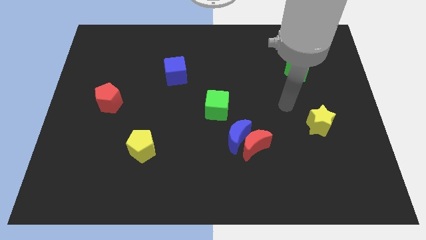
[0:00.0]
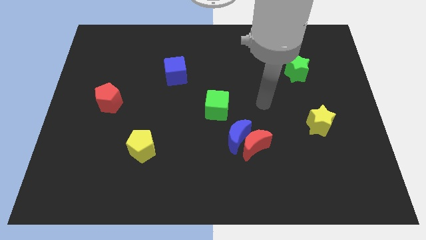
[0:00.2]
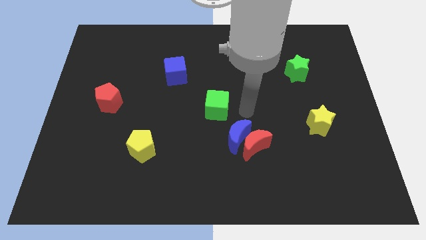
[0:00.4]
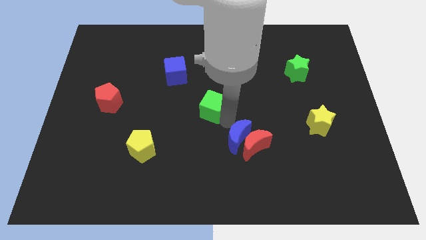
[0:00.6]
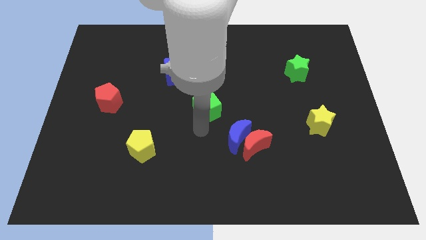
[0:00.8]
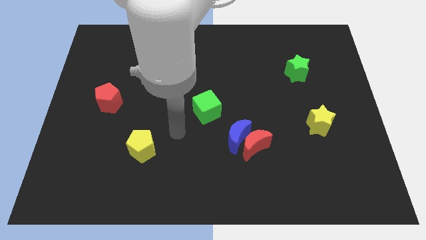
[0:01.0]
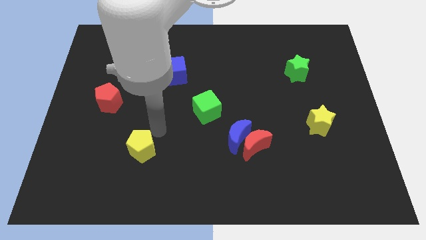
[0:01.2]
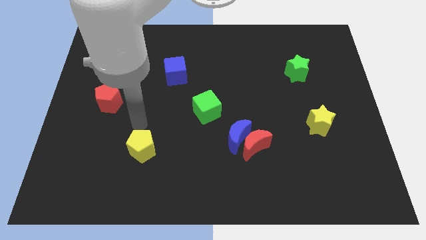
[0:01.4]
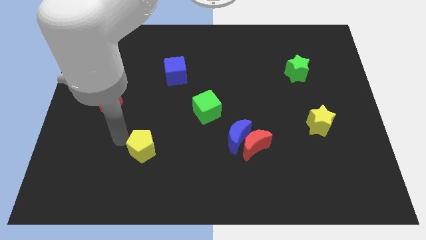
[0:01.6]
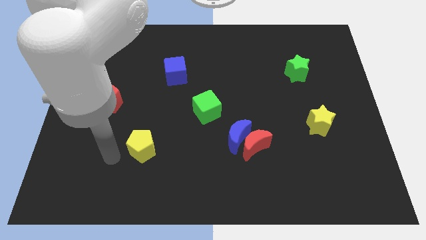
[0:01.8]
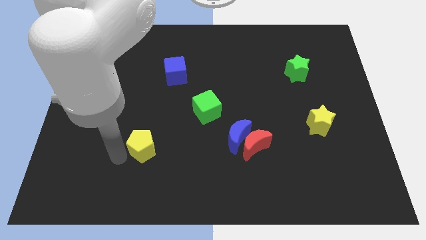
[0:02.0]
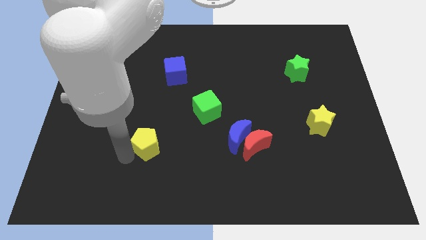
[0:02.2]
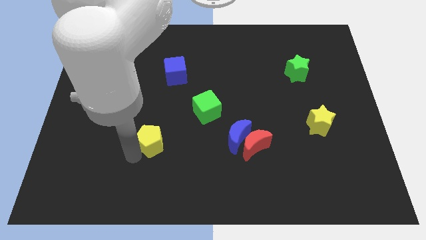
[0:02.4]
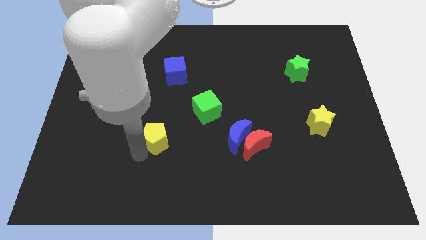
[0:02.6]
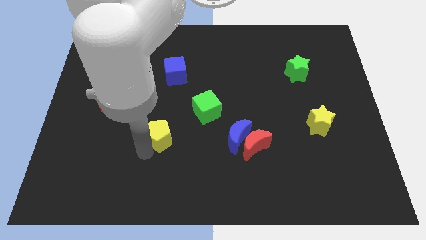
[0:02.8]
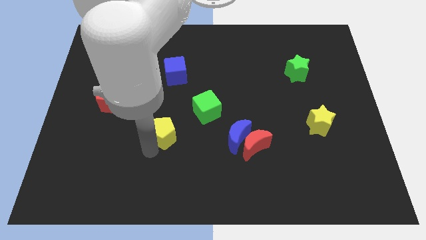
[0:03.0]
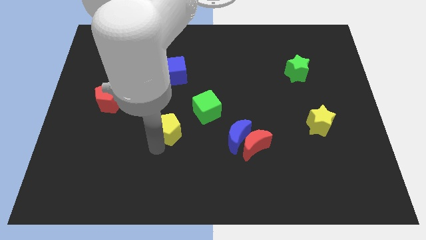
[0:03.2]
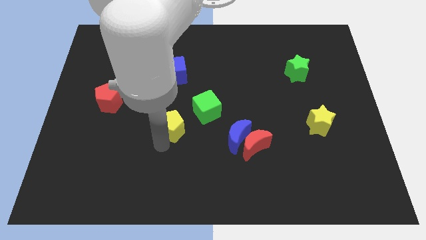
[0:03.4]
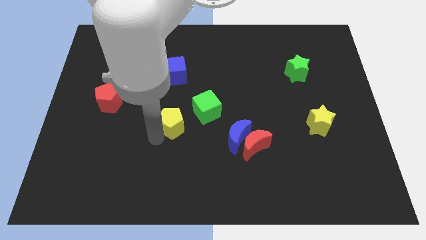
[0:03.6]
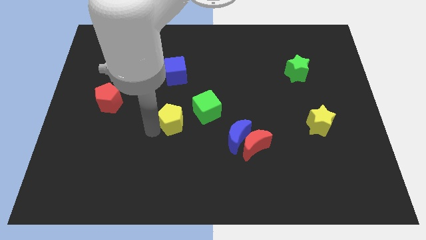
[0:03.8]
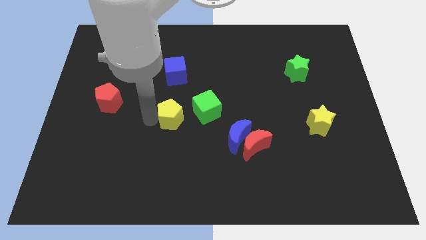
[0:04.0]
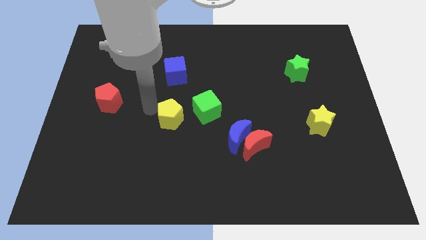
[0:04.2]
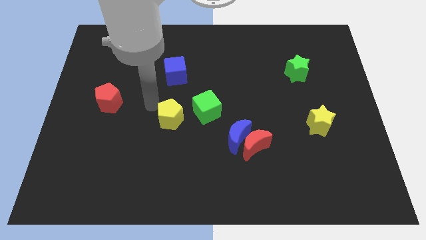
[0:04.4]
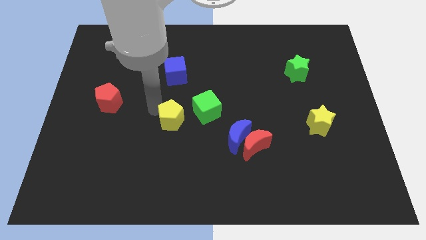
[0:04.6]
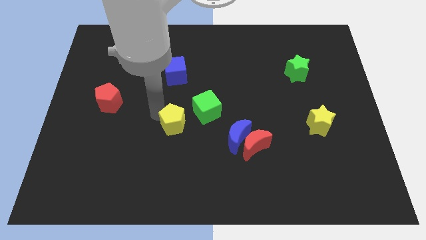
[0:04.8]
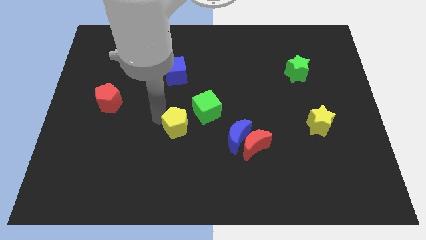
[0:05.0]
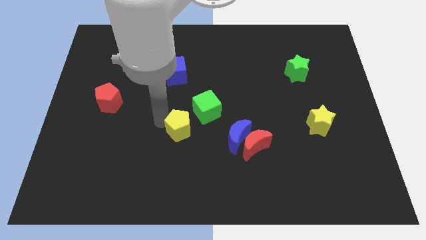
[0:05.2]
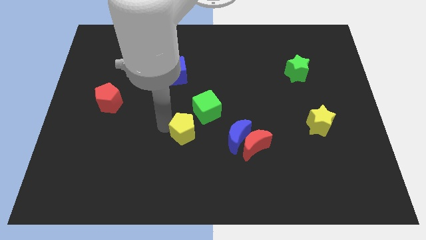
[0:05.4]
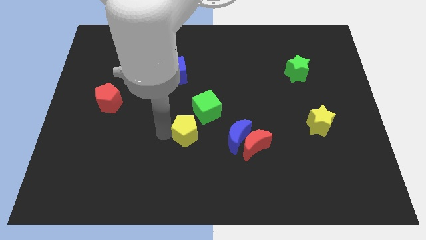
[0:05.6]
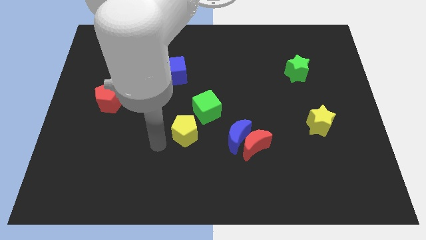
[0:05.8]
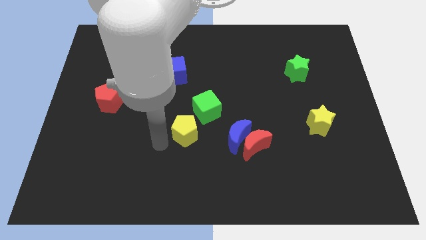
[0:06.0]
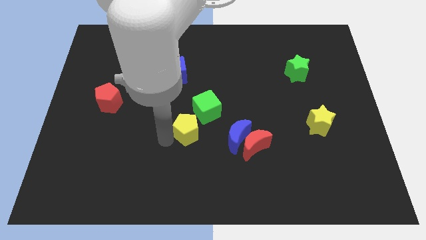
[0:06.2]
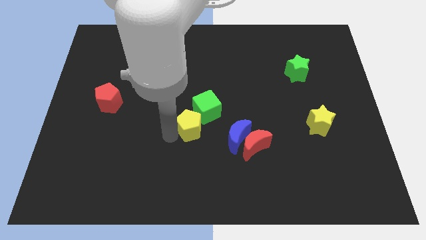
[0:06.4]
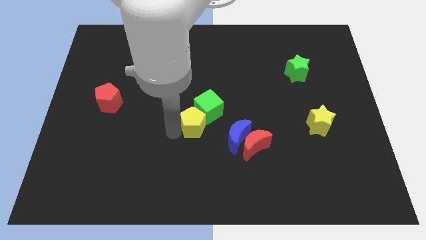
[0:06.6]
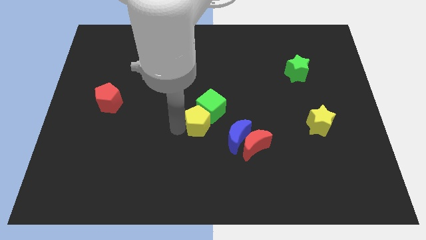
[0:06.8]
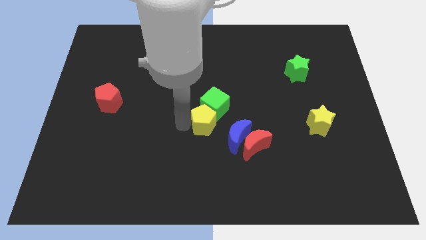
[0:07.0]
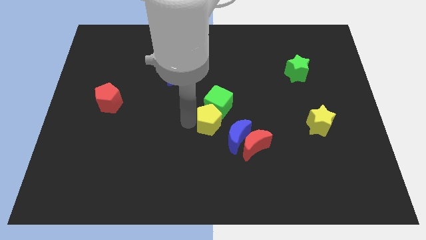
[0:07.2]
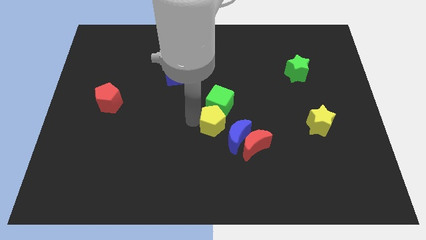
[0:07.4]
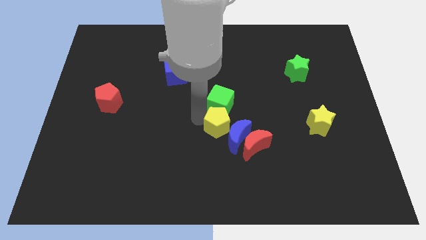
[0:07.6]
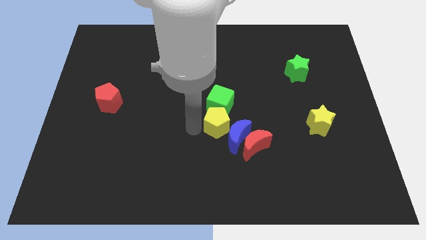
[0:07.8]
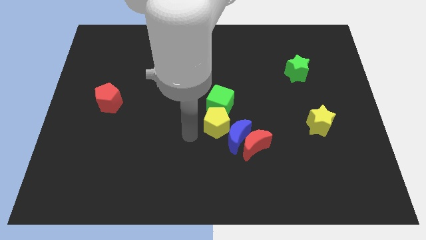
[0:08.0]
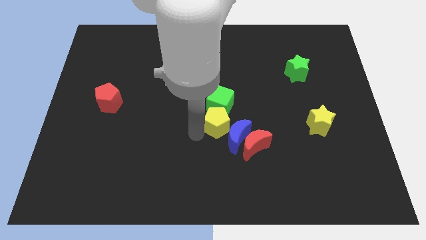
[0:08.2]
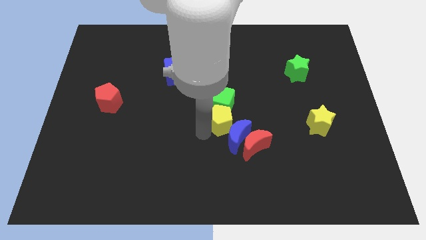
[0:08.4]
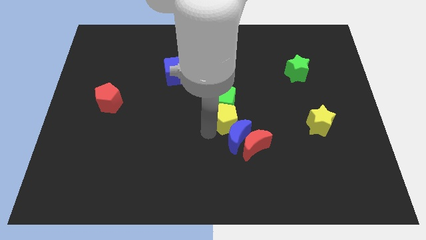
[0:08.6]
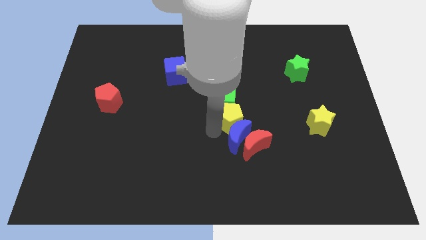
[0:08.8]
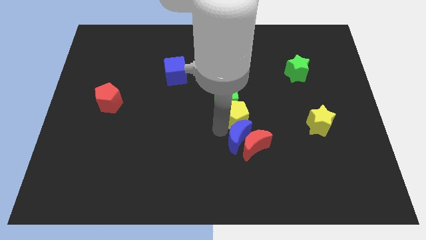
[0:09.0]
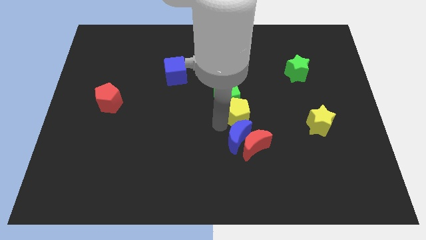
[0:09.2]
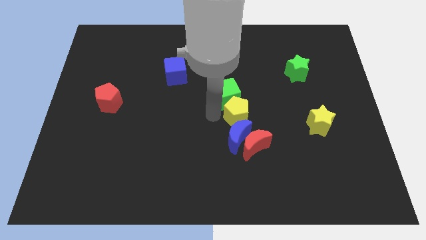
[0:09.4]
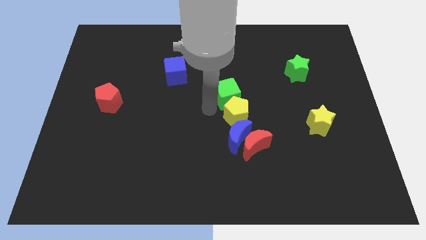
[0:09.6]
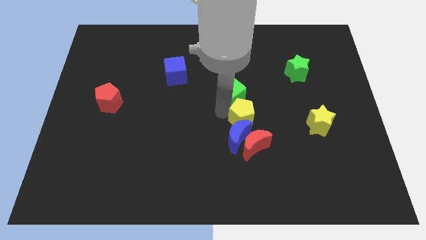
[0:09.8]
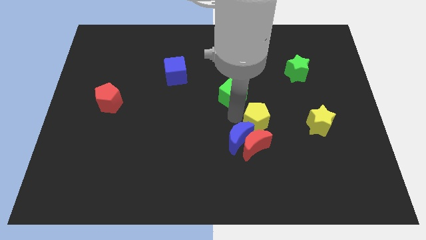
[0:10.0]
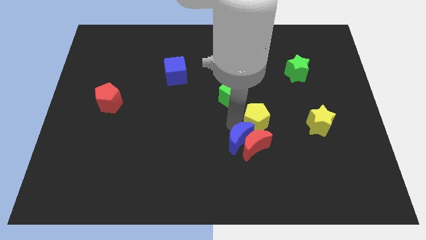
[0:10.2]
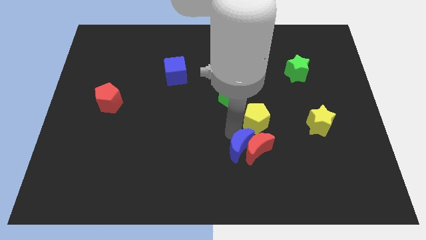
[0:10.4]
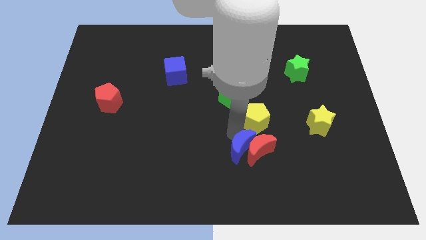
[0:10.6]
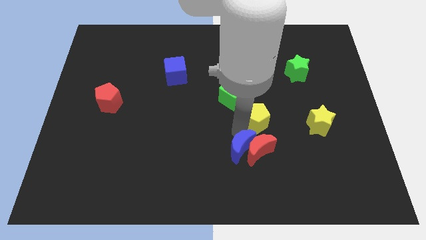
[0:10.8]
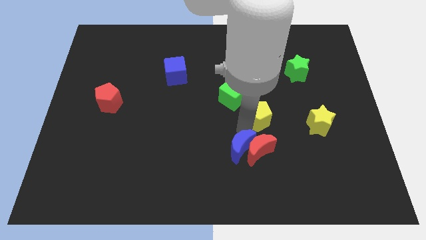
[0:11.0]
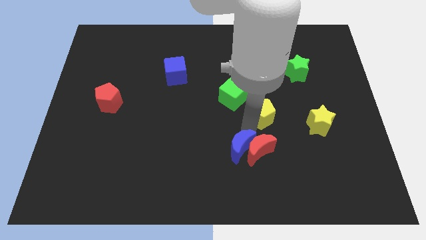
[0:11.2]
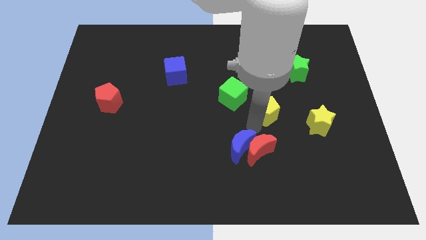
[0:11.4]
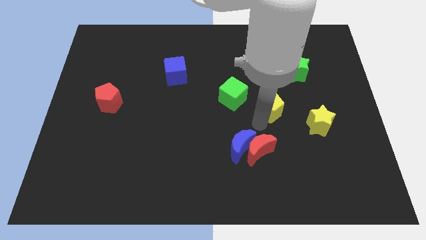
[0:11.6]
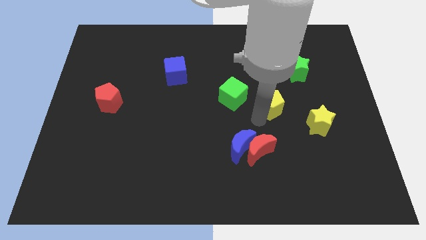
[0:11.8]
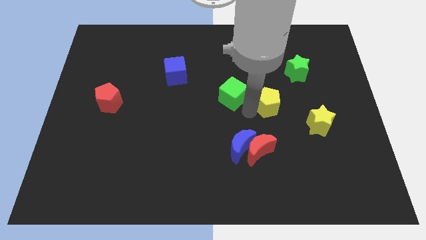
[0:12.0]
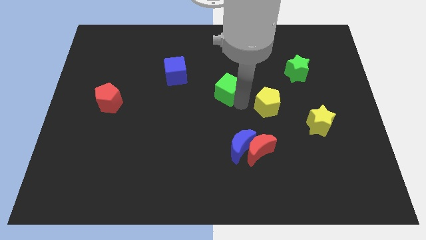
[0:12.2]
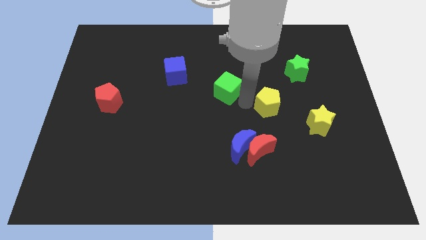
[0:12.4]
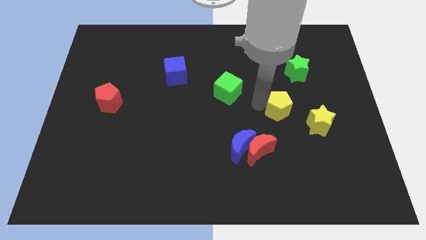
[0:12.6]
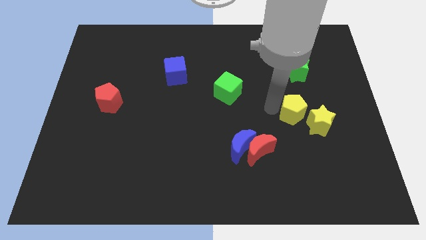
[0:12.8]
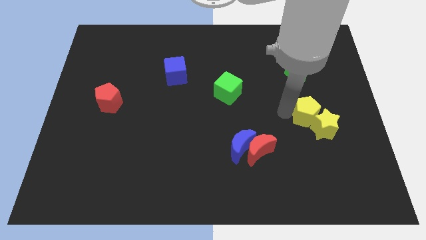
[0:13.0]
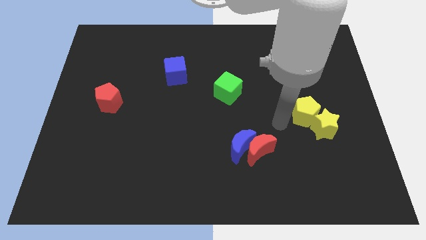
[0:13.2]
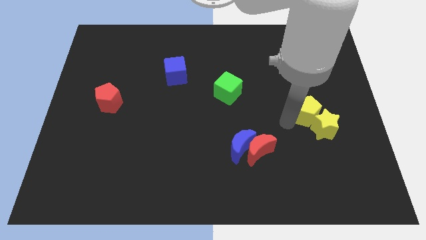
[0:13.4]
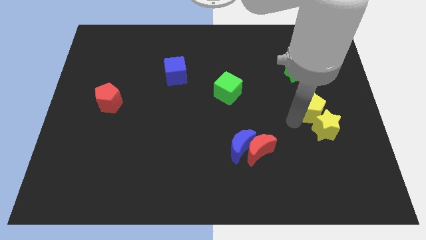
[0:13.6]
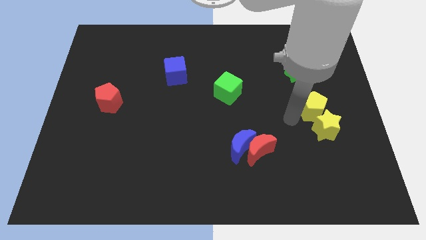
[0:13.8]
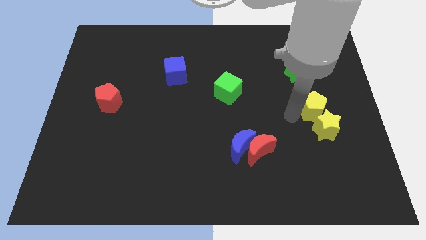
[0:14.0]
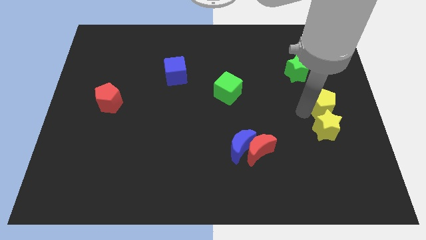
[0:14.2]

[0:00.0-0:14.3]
put the yellow pentagon to the right side
